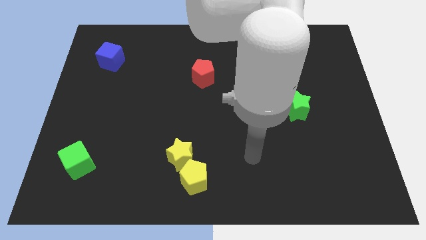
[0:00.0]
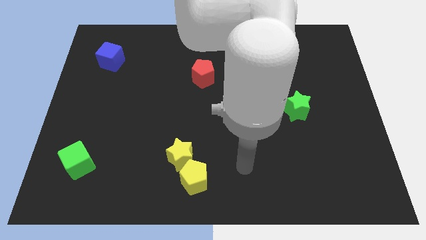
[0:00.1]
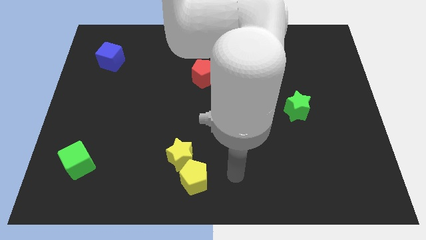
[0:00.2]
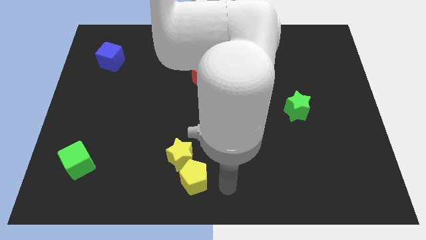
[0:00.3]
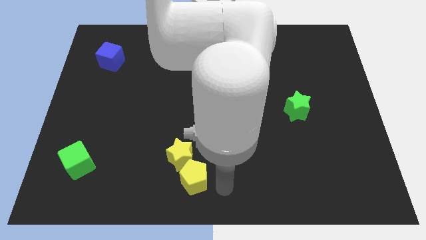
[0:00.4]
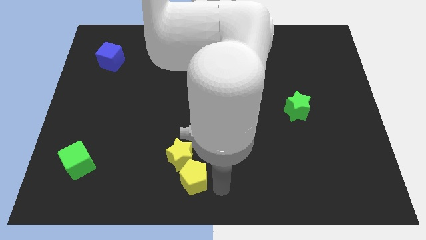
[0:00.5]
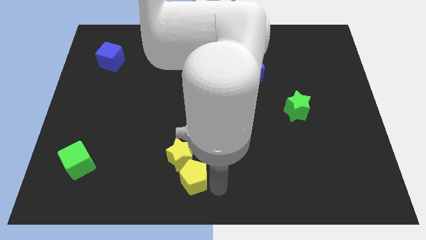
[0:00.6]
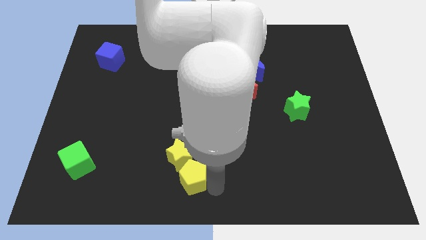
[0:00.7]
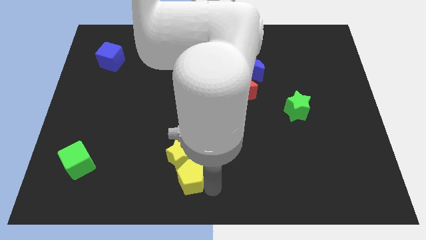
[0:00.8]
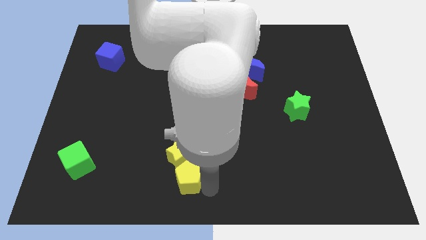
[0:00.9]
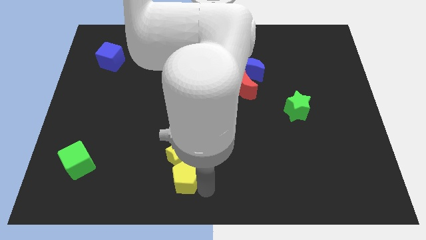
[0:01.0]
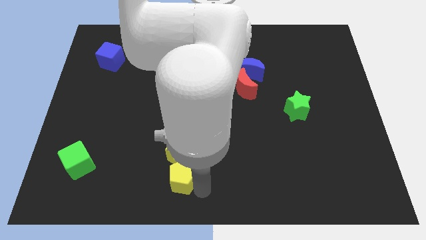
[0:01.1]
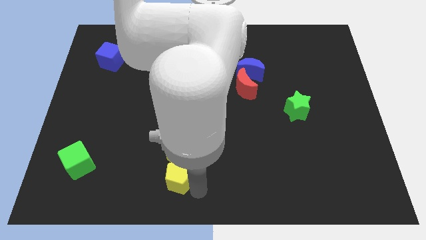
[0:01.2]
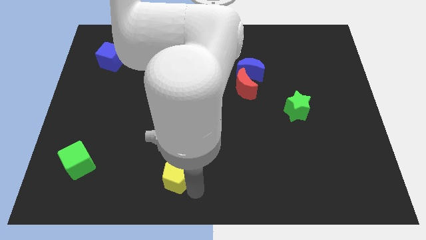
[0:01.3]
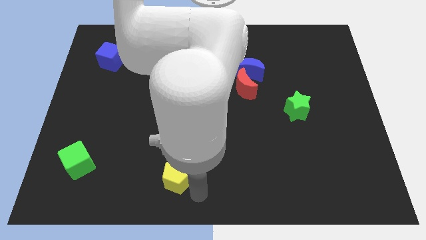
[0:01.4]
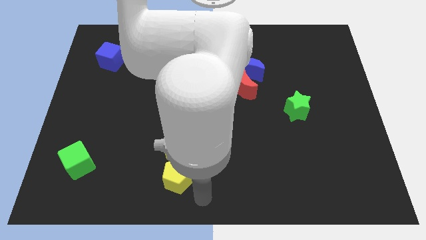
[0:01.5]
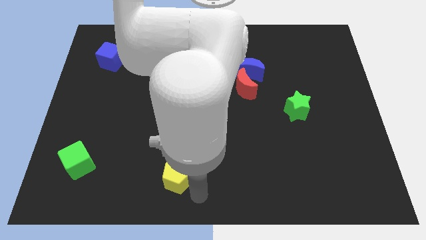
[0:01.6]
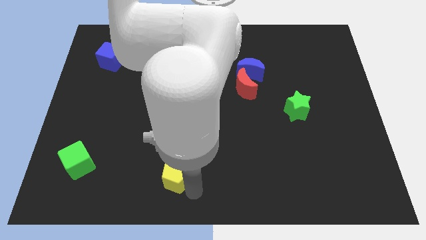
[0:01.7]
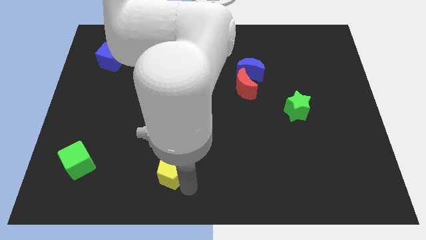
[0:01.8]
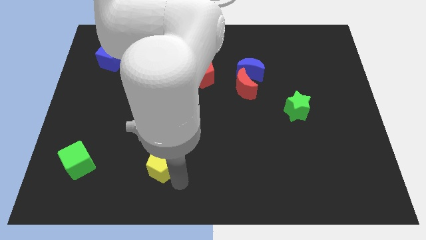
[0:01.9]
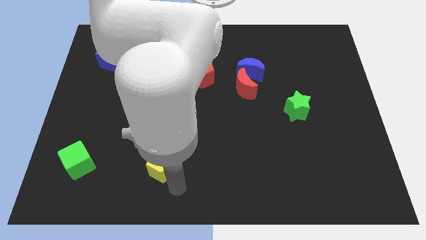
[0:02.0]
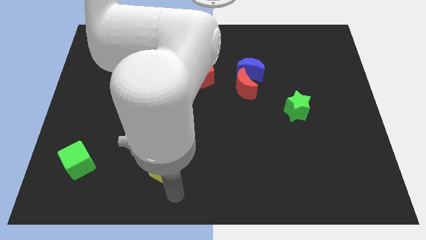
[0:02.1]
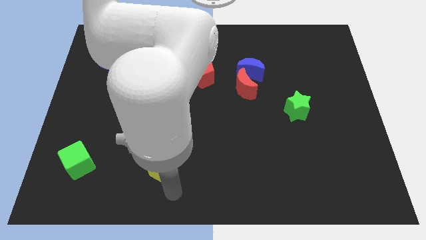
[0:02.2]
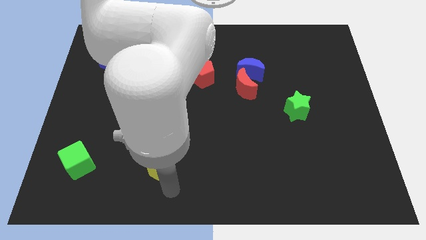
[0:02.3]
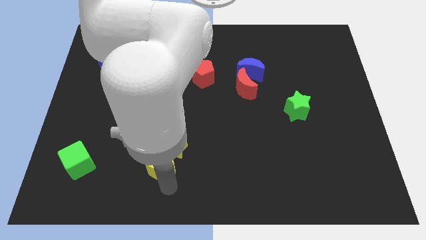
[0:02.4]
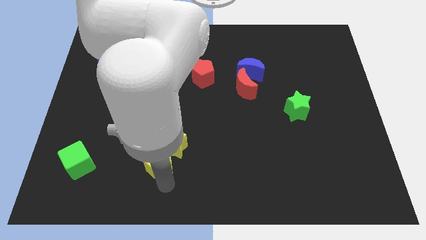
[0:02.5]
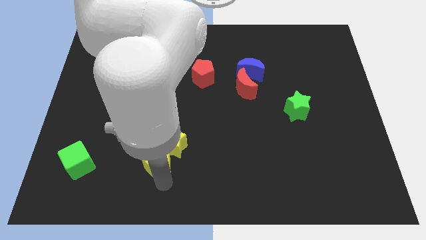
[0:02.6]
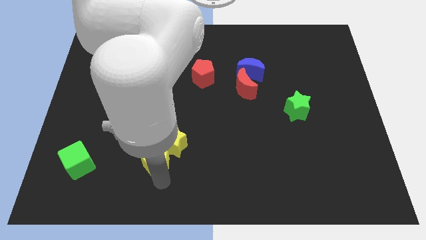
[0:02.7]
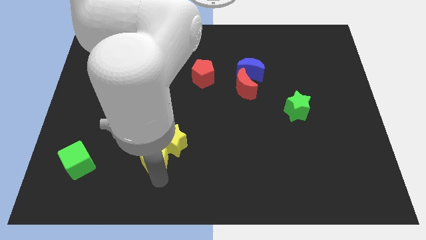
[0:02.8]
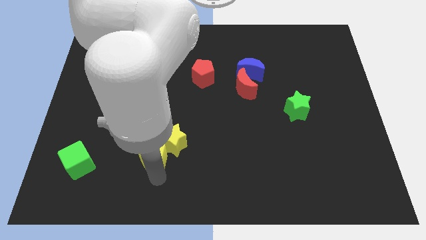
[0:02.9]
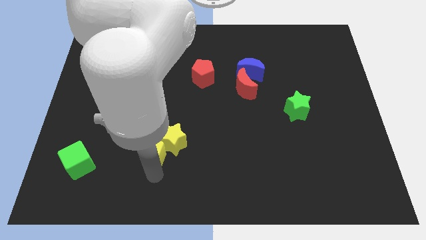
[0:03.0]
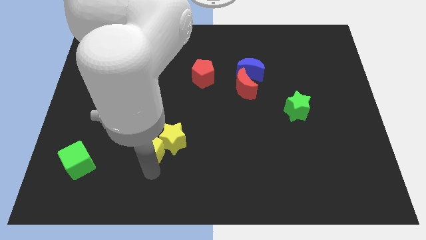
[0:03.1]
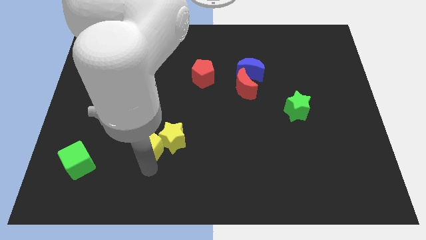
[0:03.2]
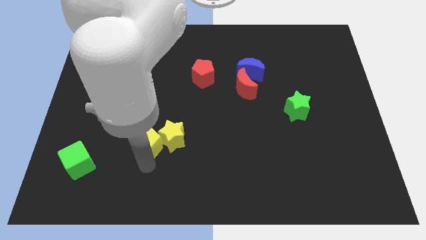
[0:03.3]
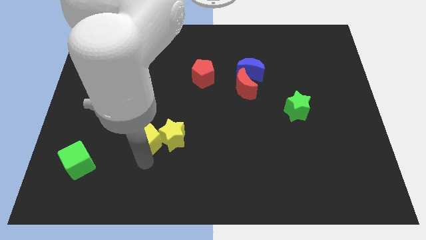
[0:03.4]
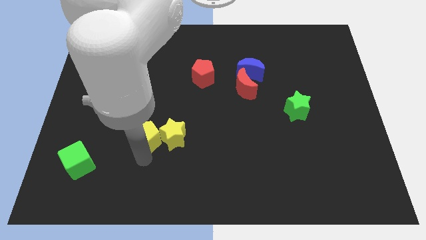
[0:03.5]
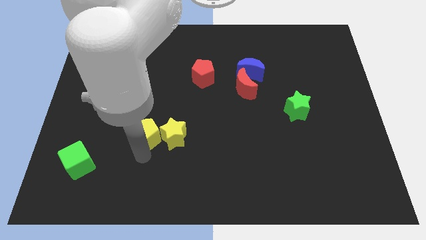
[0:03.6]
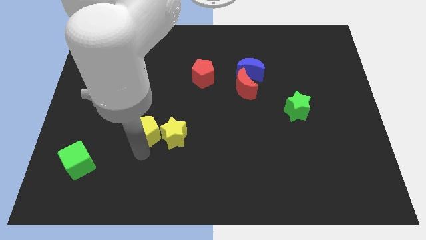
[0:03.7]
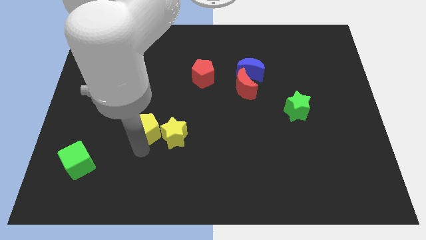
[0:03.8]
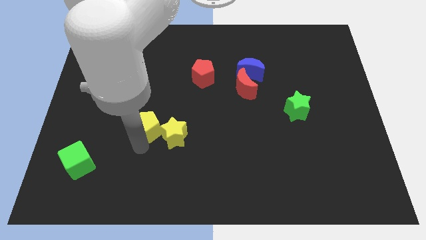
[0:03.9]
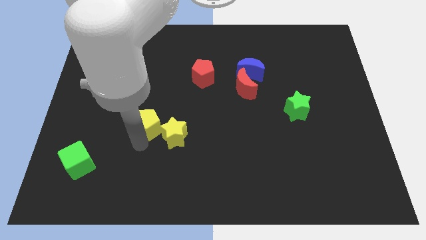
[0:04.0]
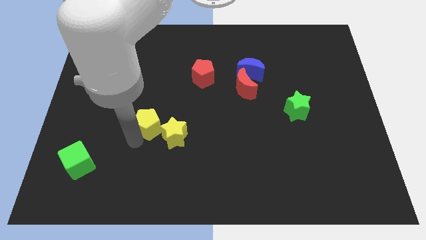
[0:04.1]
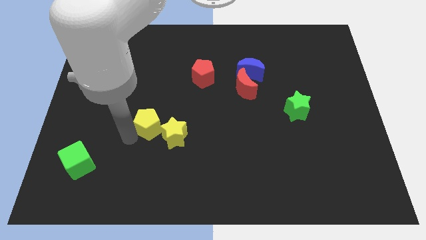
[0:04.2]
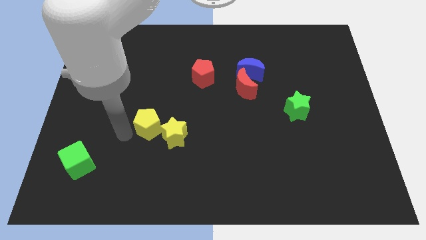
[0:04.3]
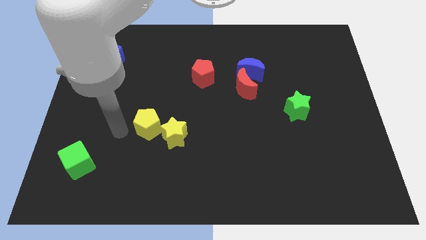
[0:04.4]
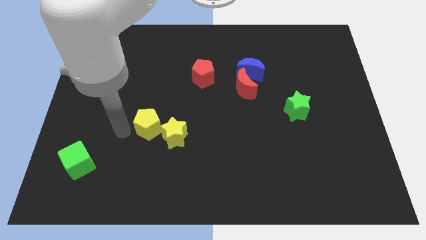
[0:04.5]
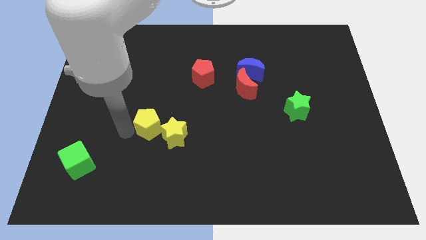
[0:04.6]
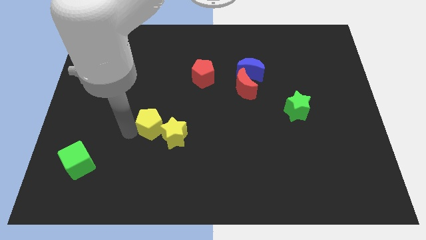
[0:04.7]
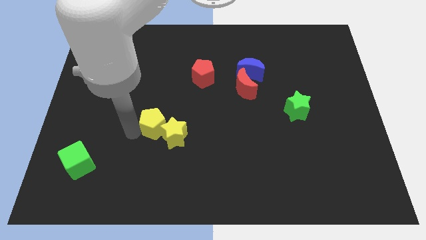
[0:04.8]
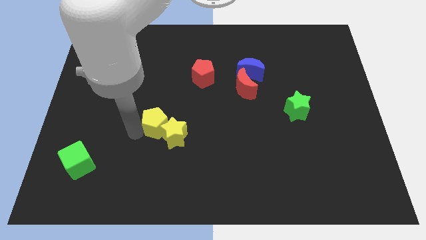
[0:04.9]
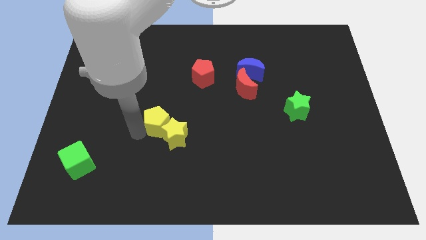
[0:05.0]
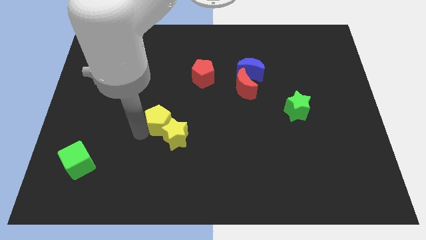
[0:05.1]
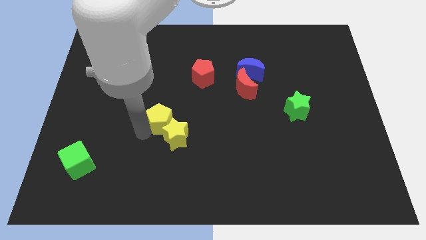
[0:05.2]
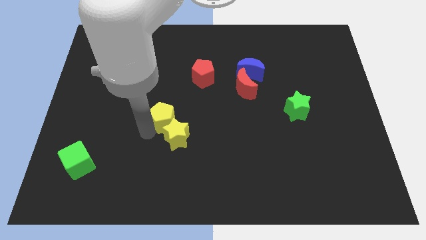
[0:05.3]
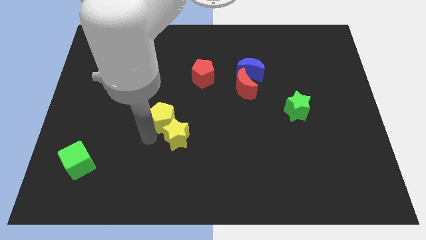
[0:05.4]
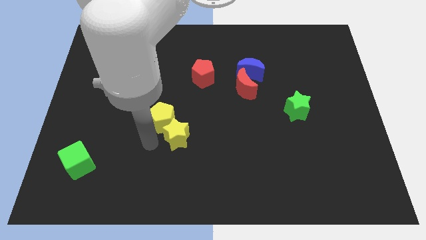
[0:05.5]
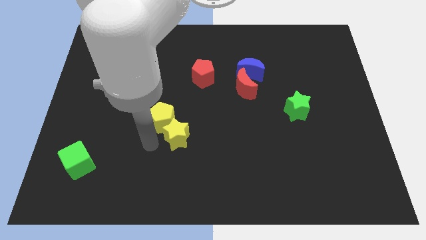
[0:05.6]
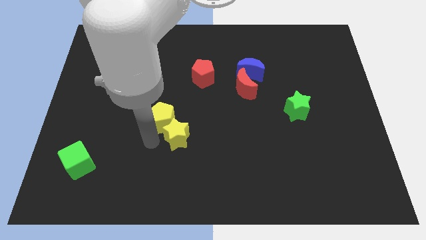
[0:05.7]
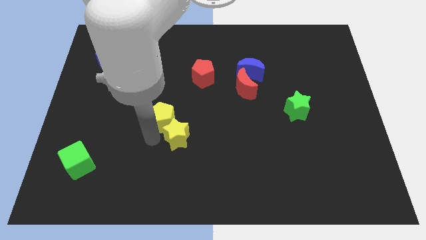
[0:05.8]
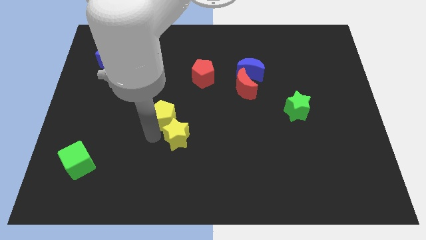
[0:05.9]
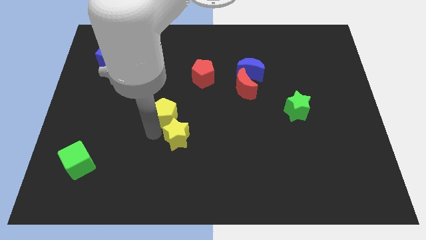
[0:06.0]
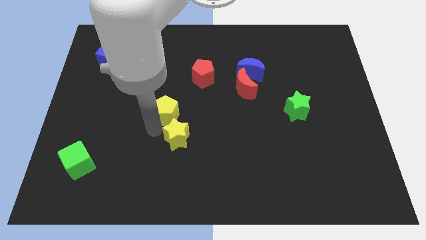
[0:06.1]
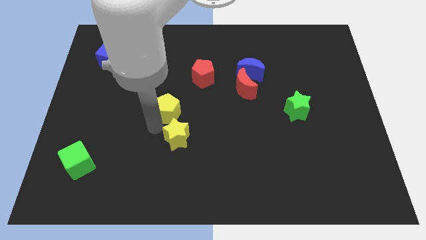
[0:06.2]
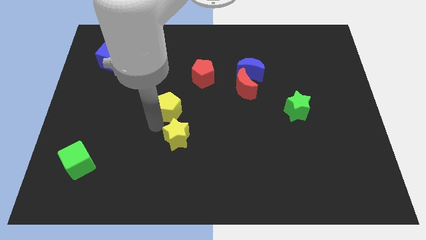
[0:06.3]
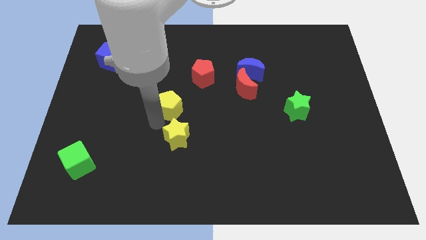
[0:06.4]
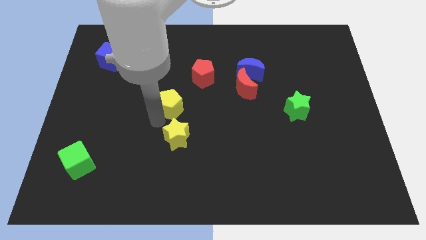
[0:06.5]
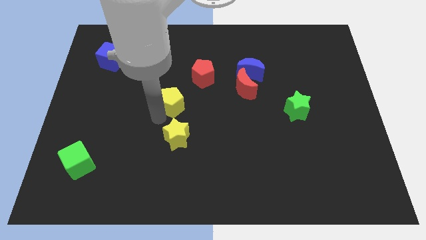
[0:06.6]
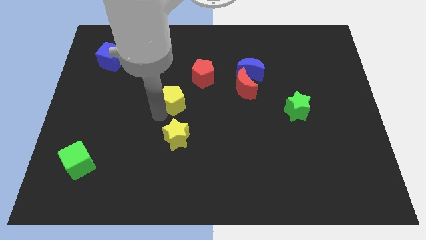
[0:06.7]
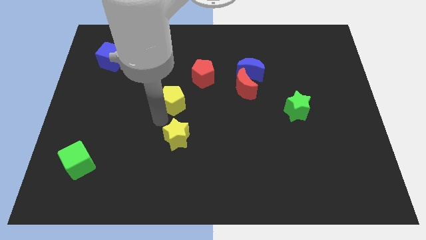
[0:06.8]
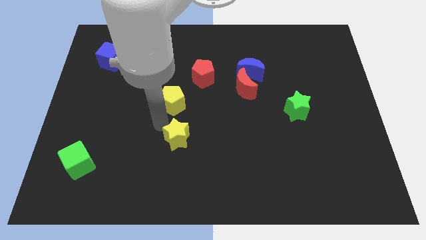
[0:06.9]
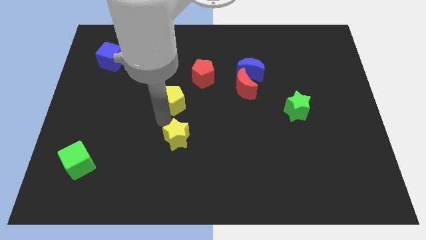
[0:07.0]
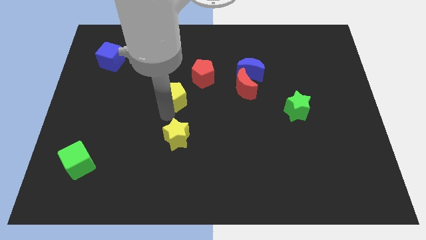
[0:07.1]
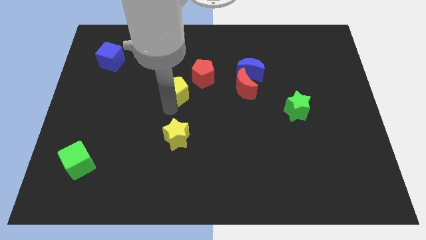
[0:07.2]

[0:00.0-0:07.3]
push the yellow pentagon up

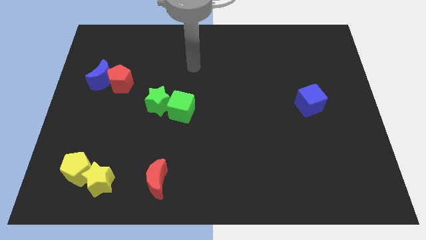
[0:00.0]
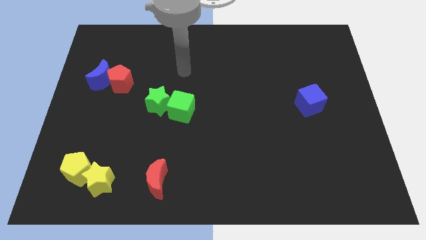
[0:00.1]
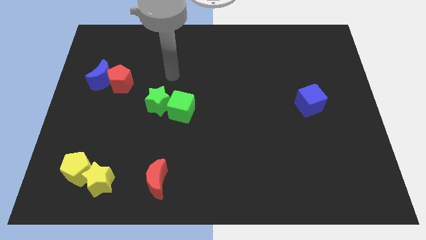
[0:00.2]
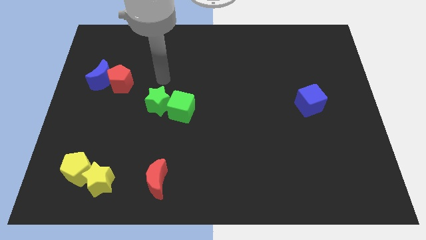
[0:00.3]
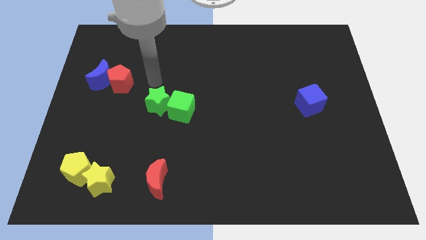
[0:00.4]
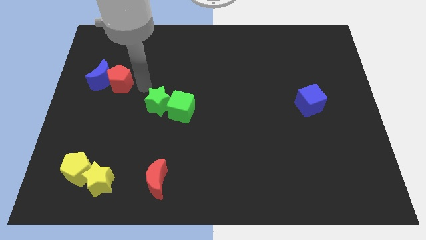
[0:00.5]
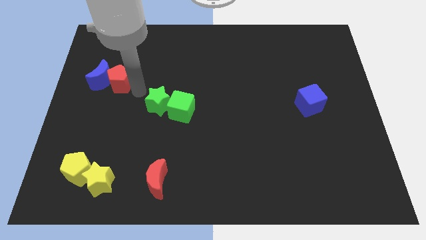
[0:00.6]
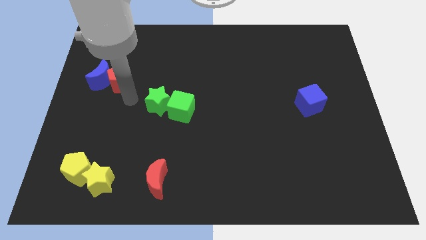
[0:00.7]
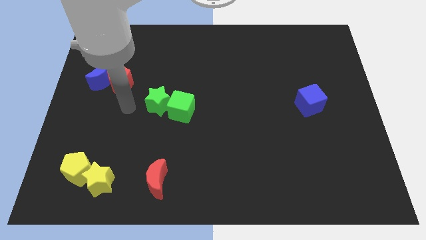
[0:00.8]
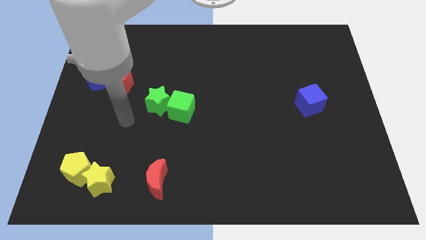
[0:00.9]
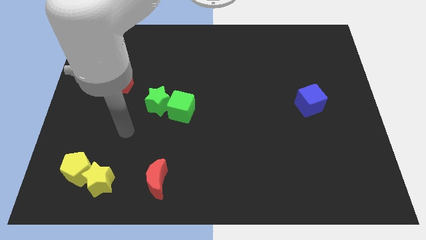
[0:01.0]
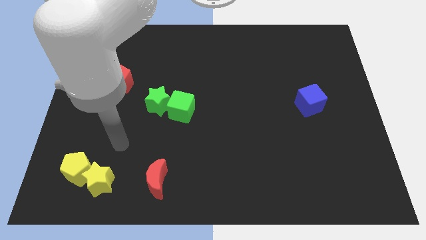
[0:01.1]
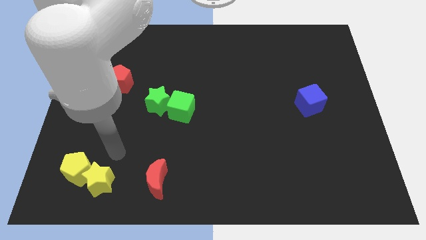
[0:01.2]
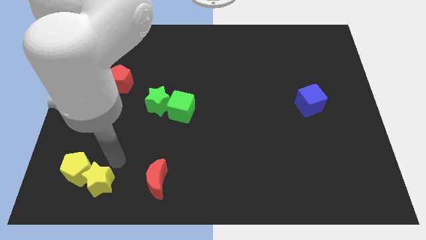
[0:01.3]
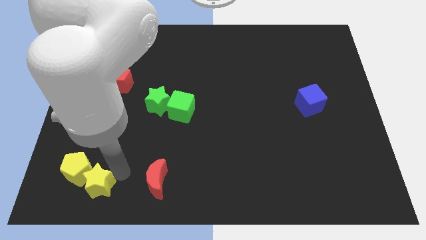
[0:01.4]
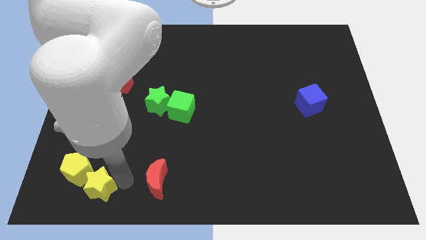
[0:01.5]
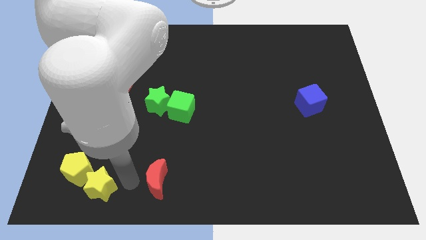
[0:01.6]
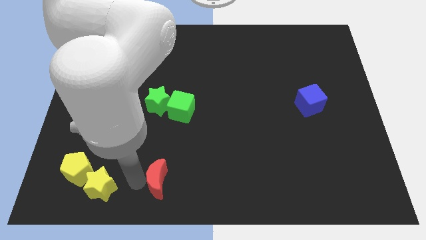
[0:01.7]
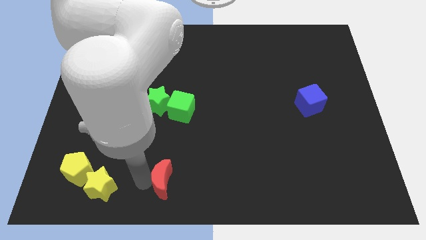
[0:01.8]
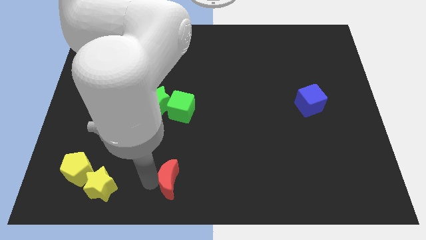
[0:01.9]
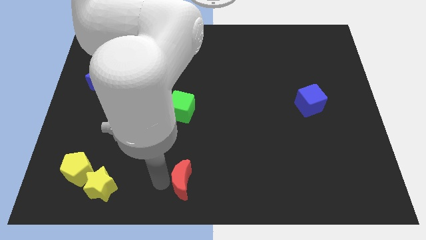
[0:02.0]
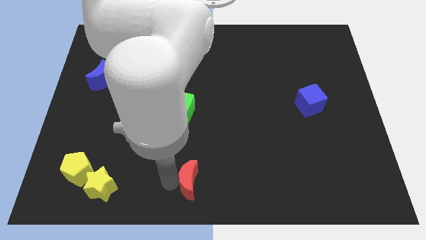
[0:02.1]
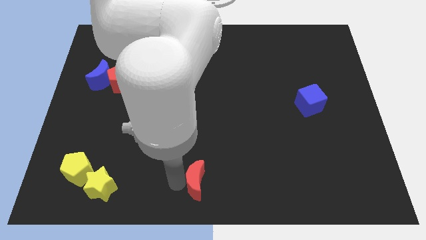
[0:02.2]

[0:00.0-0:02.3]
push the red moon to the right somewhat
